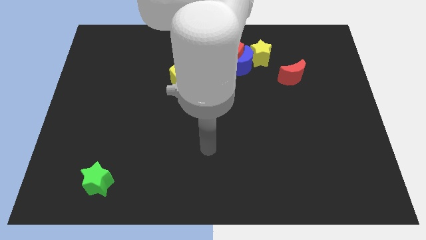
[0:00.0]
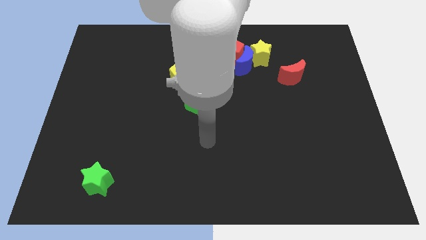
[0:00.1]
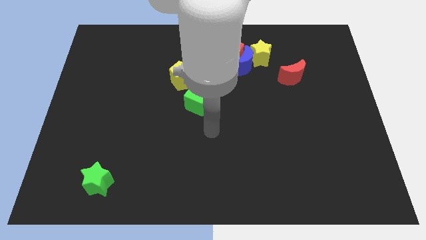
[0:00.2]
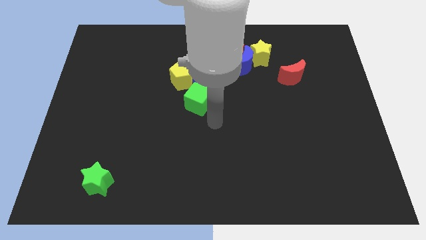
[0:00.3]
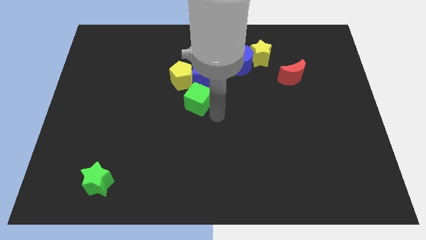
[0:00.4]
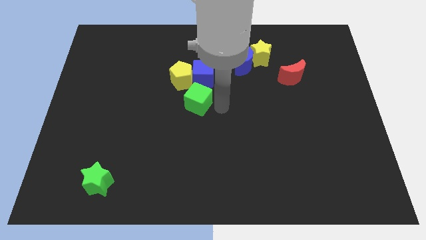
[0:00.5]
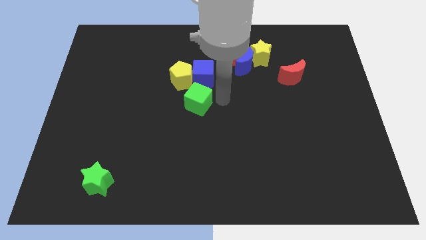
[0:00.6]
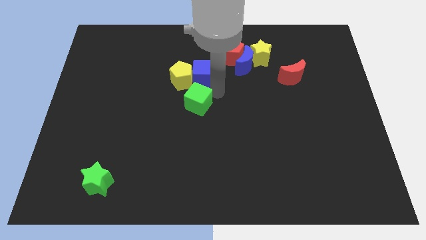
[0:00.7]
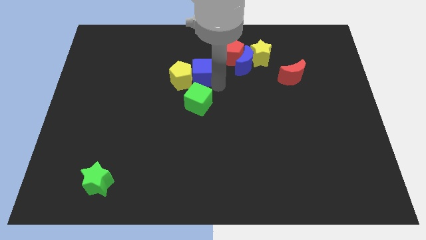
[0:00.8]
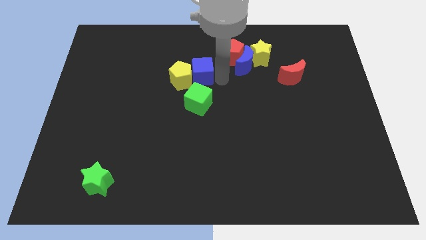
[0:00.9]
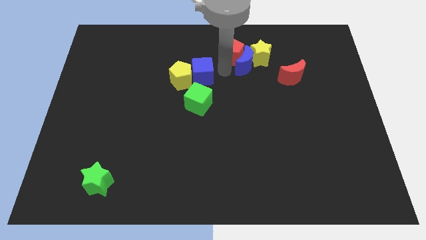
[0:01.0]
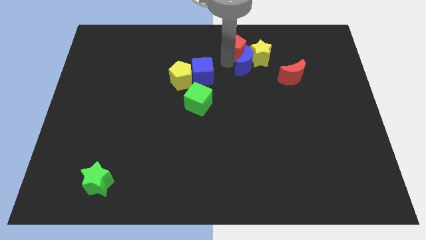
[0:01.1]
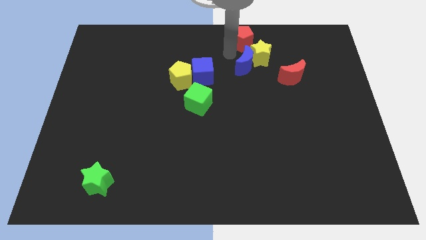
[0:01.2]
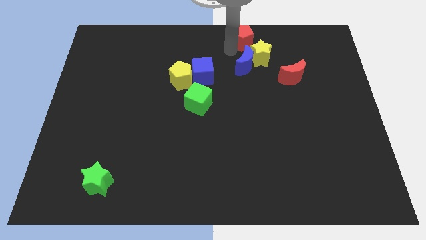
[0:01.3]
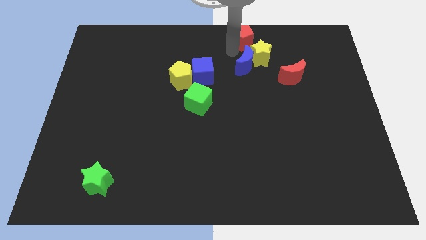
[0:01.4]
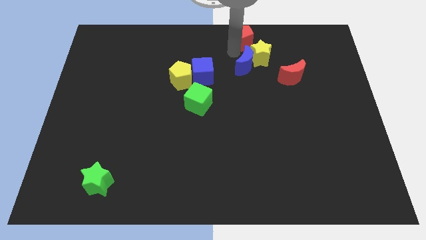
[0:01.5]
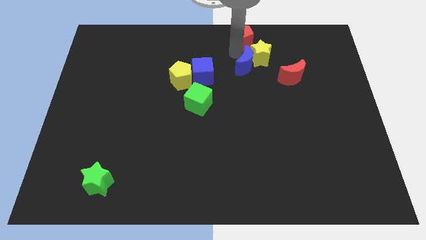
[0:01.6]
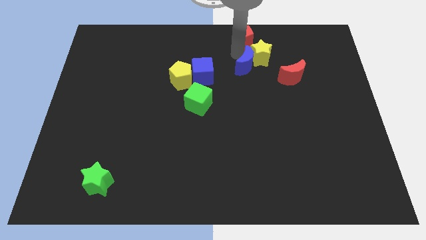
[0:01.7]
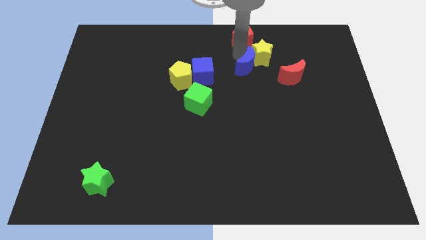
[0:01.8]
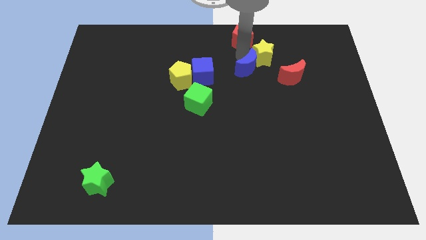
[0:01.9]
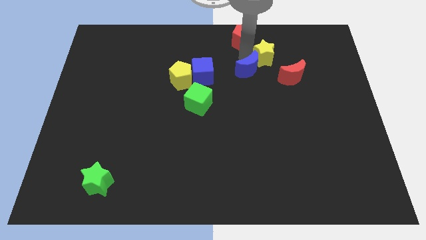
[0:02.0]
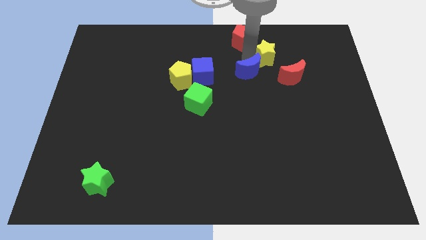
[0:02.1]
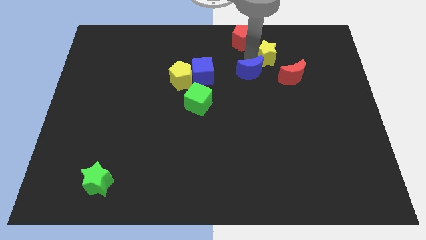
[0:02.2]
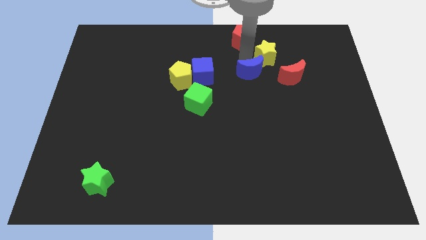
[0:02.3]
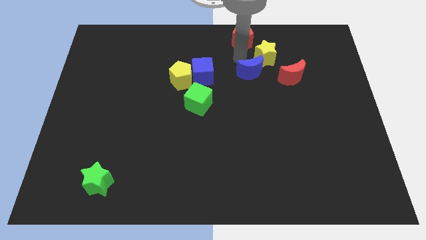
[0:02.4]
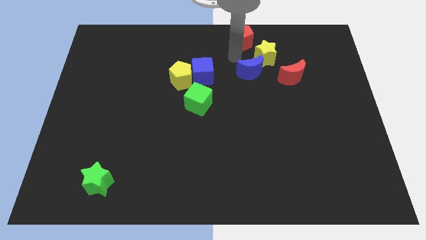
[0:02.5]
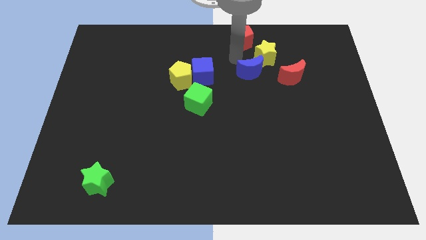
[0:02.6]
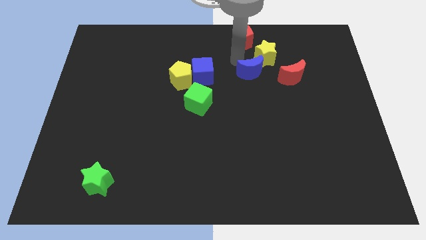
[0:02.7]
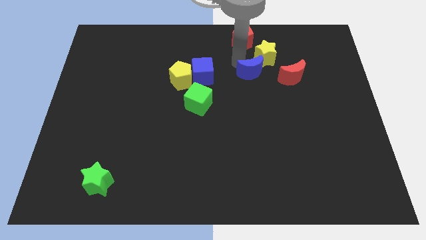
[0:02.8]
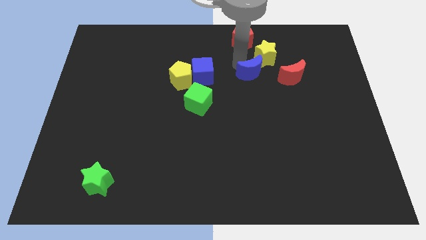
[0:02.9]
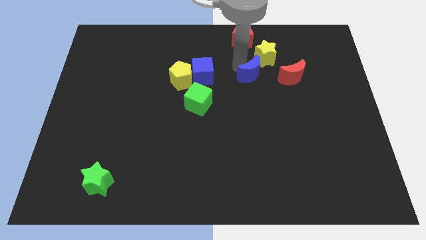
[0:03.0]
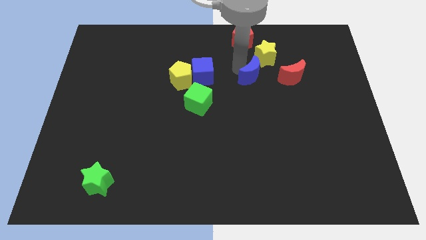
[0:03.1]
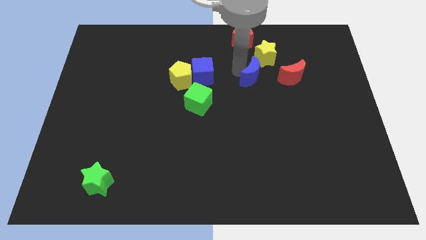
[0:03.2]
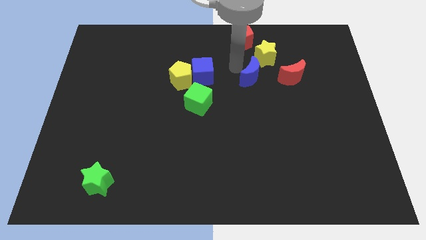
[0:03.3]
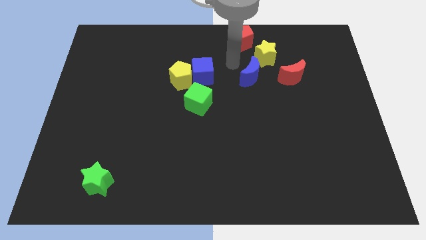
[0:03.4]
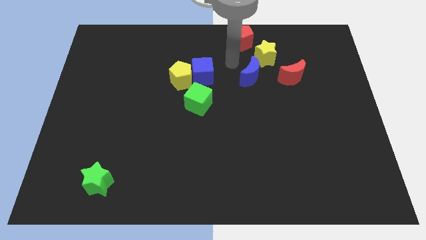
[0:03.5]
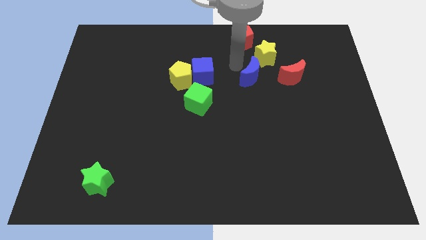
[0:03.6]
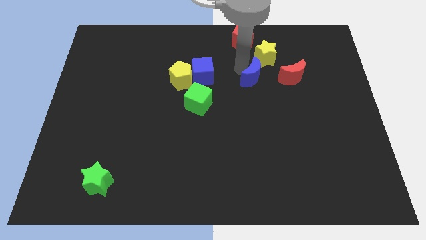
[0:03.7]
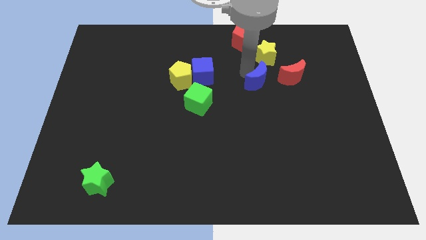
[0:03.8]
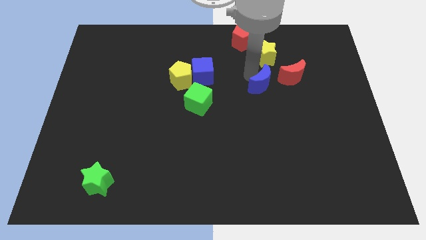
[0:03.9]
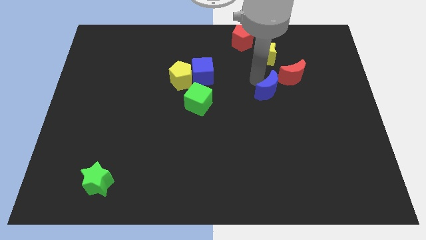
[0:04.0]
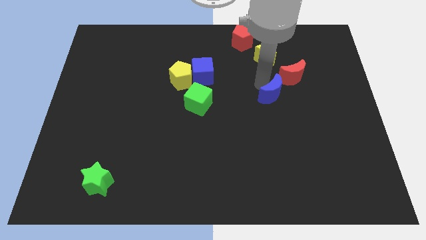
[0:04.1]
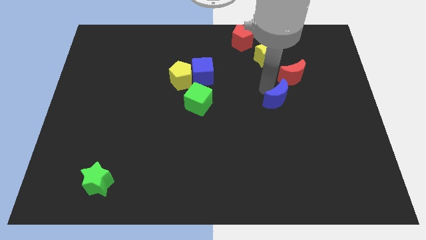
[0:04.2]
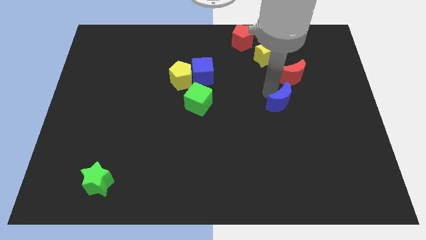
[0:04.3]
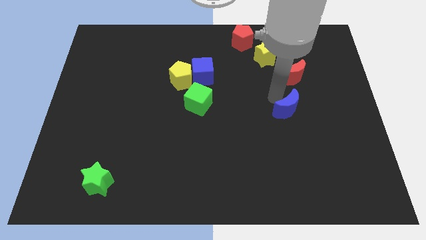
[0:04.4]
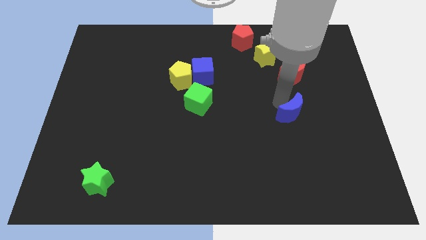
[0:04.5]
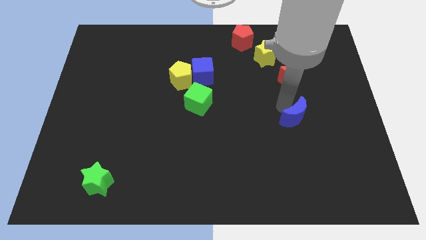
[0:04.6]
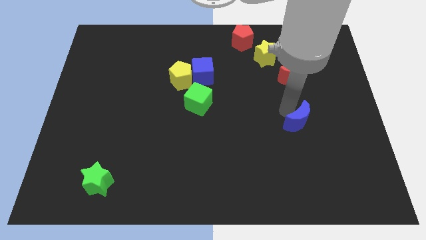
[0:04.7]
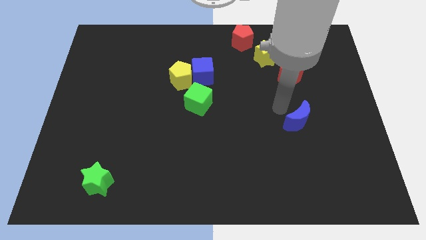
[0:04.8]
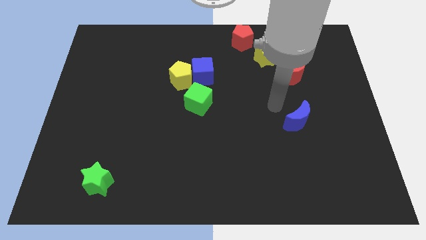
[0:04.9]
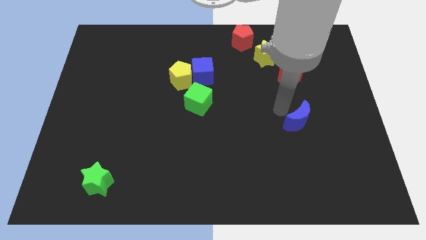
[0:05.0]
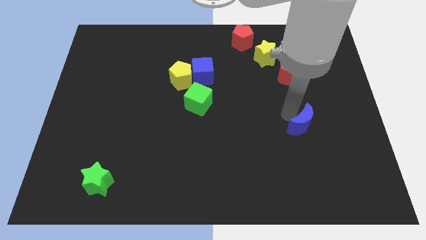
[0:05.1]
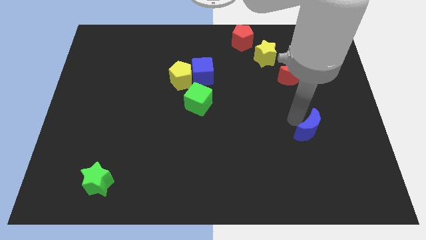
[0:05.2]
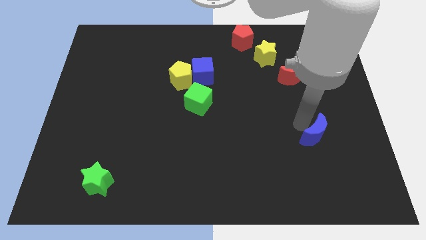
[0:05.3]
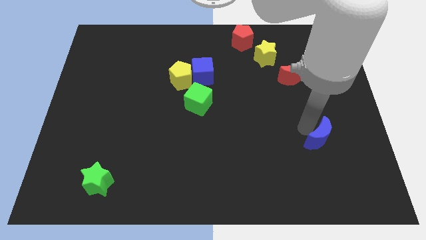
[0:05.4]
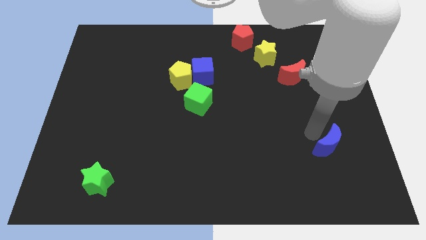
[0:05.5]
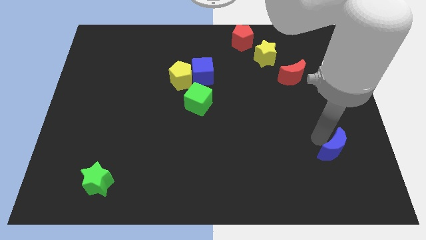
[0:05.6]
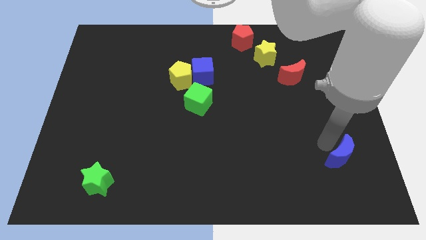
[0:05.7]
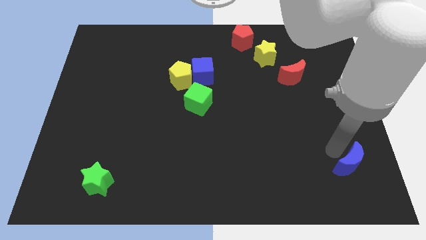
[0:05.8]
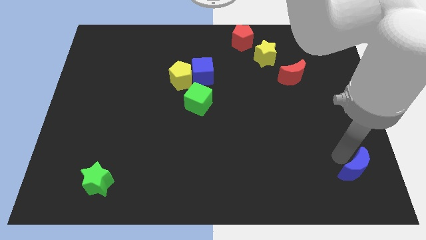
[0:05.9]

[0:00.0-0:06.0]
slide the blue moon to the bottom right of the board

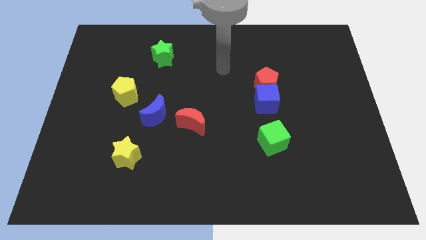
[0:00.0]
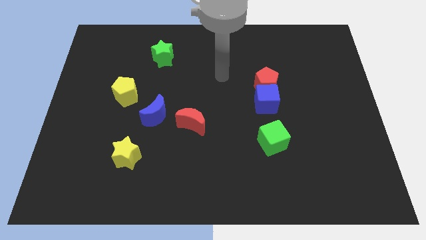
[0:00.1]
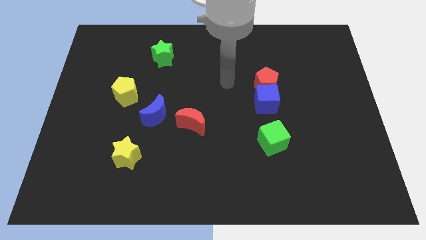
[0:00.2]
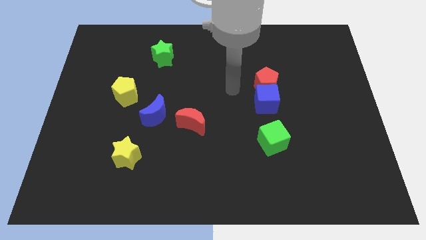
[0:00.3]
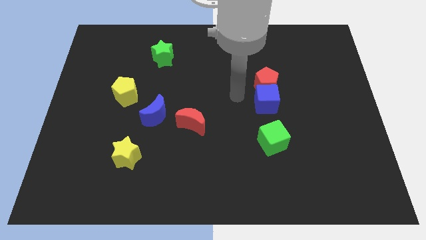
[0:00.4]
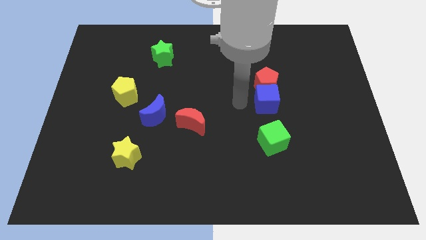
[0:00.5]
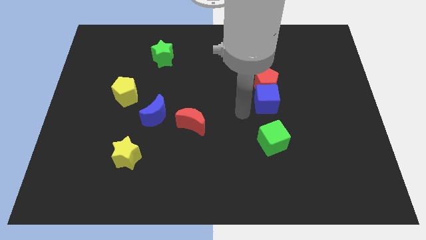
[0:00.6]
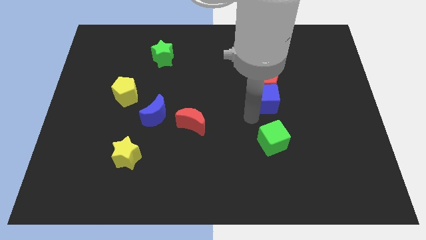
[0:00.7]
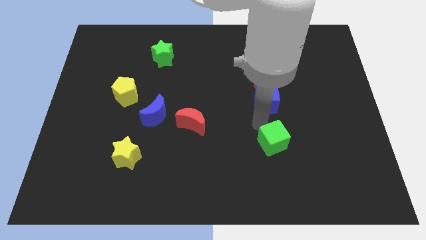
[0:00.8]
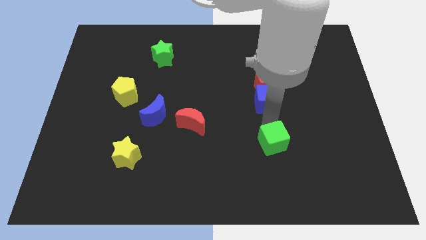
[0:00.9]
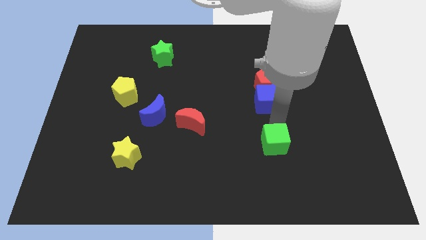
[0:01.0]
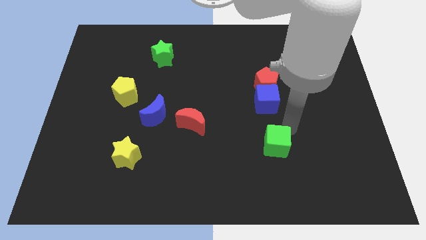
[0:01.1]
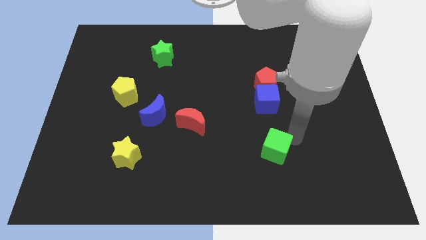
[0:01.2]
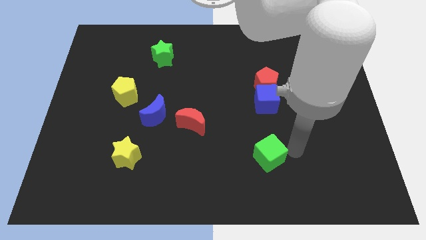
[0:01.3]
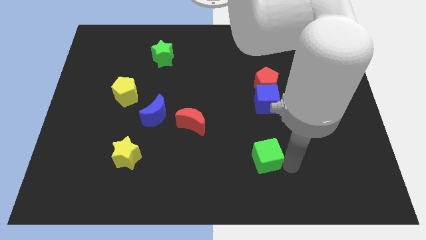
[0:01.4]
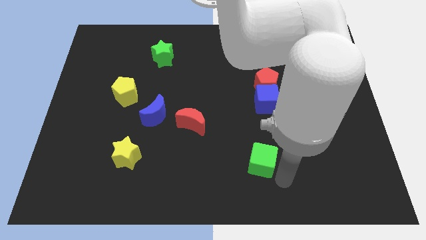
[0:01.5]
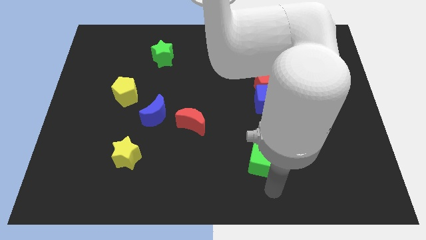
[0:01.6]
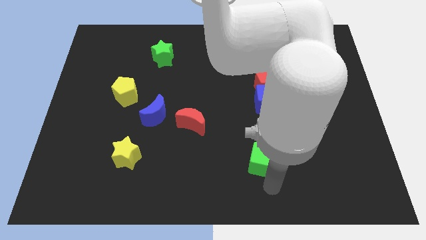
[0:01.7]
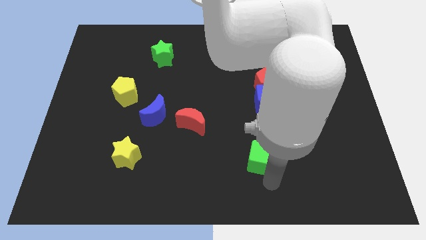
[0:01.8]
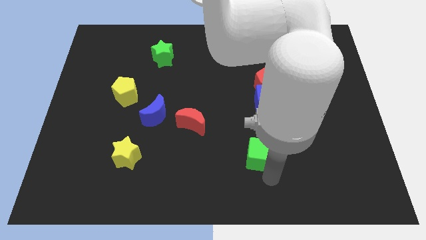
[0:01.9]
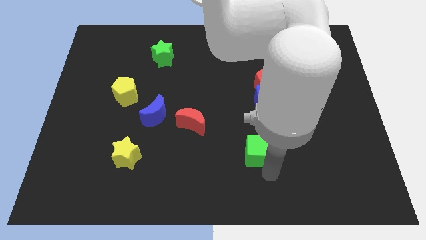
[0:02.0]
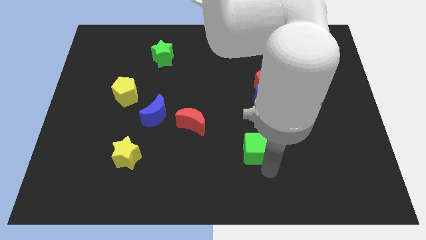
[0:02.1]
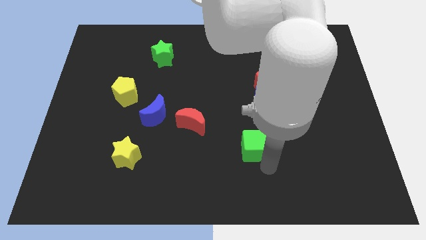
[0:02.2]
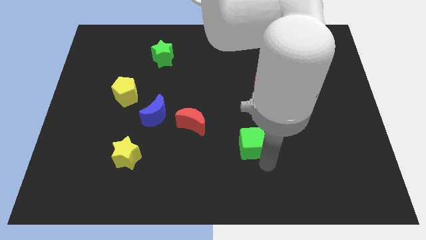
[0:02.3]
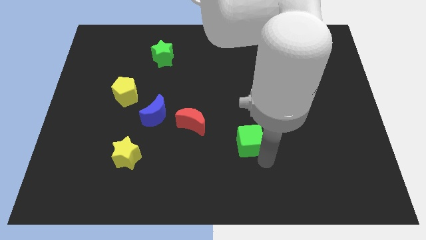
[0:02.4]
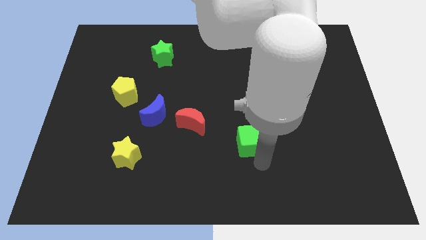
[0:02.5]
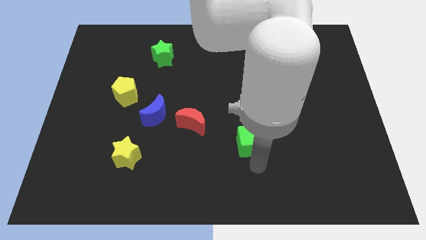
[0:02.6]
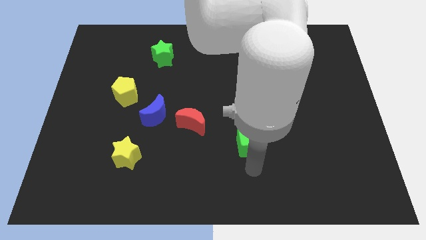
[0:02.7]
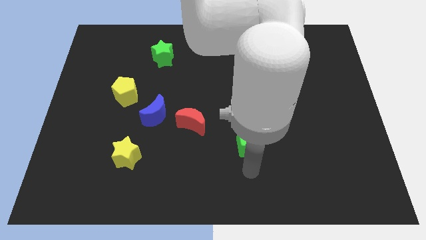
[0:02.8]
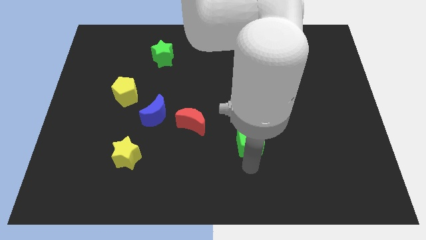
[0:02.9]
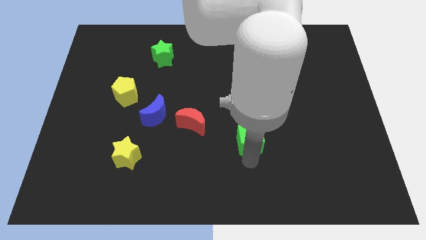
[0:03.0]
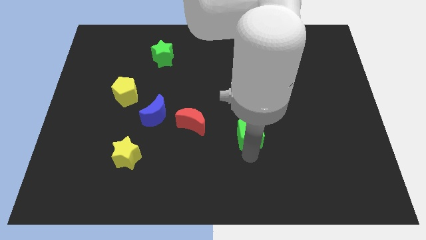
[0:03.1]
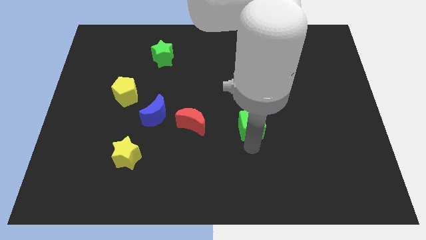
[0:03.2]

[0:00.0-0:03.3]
push the green cube to the middle of the board
